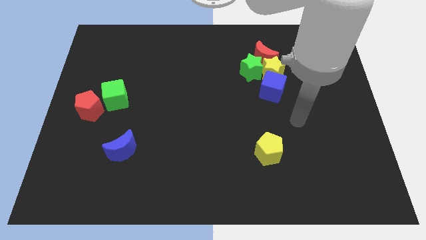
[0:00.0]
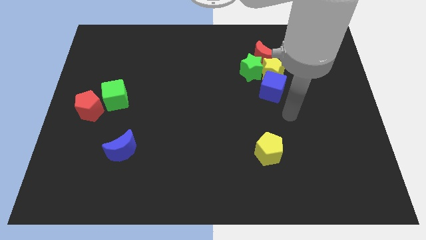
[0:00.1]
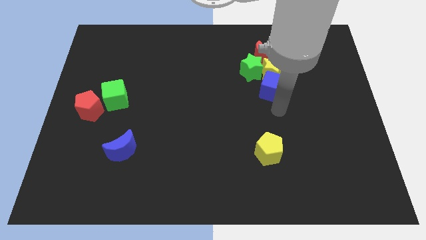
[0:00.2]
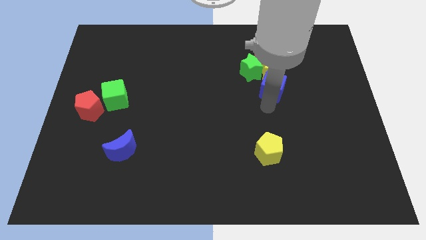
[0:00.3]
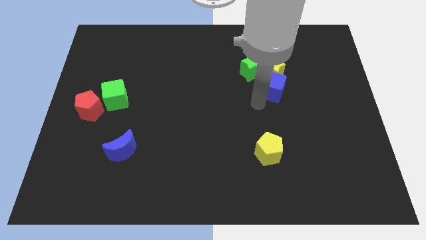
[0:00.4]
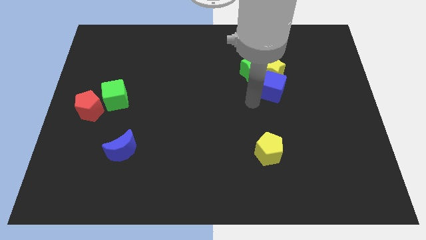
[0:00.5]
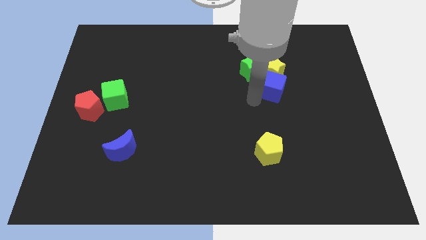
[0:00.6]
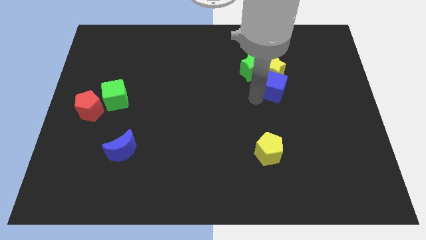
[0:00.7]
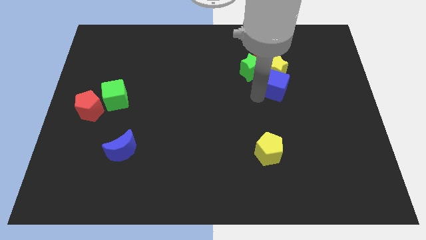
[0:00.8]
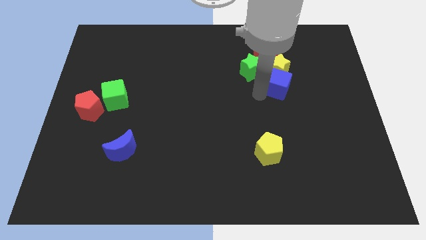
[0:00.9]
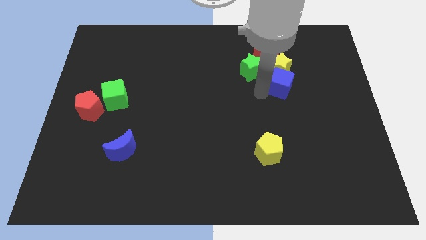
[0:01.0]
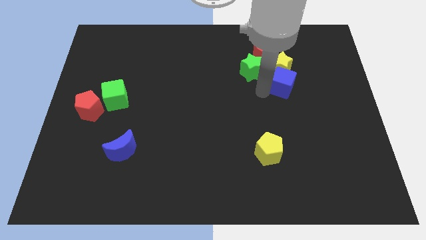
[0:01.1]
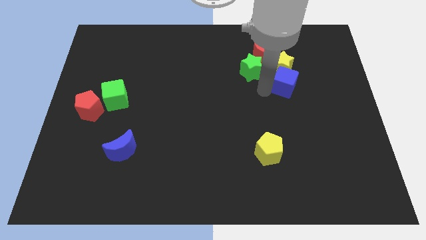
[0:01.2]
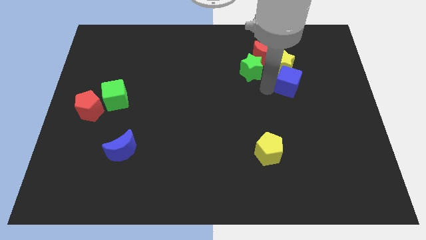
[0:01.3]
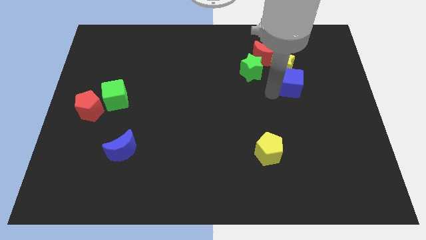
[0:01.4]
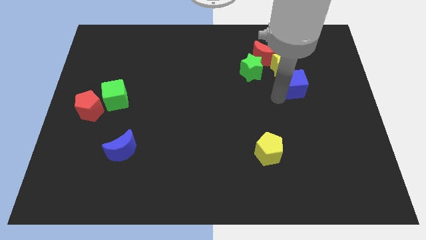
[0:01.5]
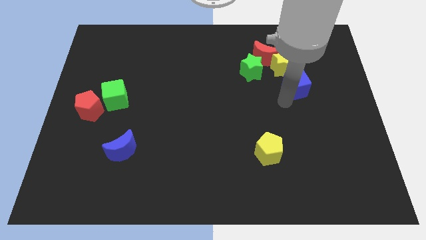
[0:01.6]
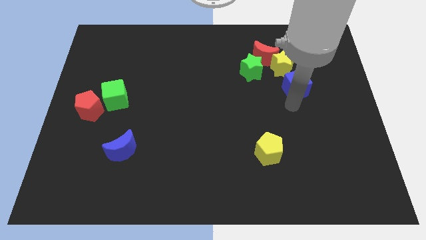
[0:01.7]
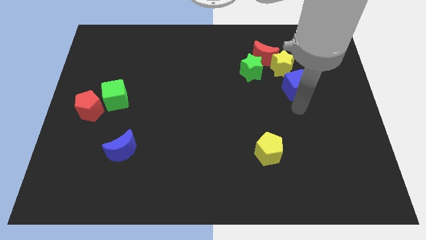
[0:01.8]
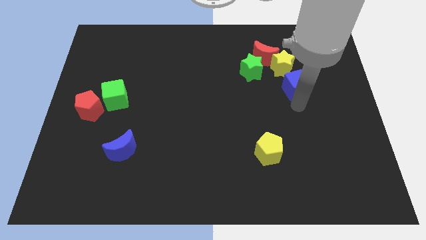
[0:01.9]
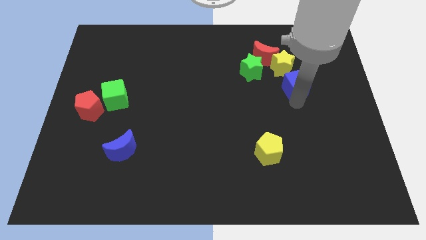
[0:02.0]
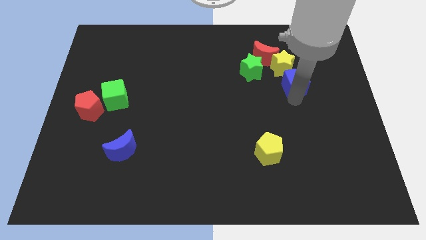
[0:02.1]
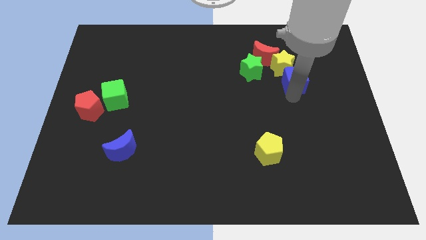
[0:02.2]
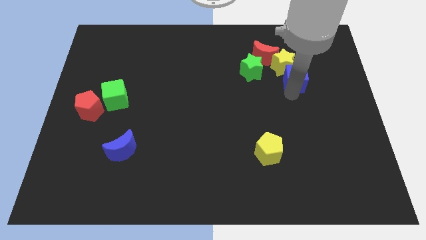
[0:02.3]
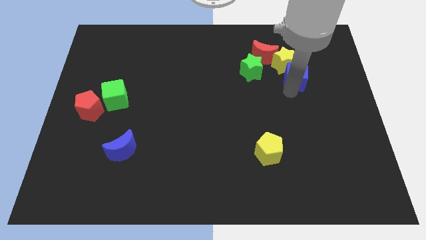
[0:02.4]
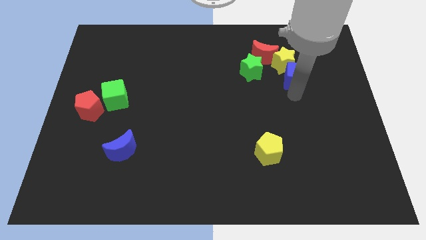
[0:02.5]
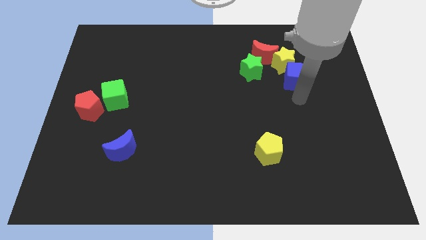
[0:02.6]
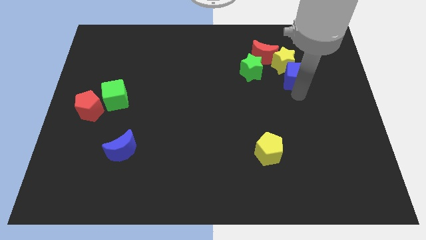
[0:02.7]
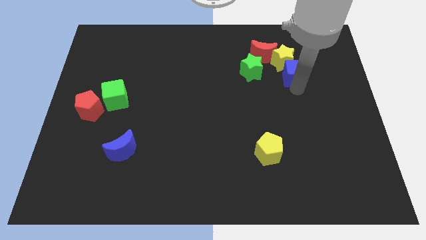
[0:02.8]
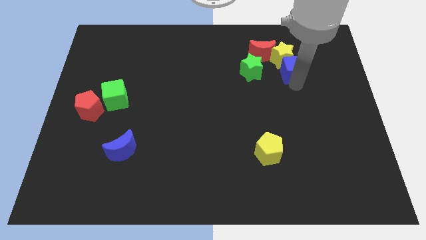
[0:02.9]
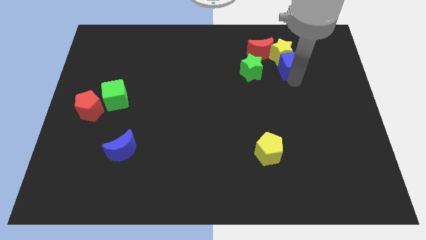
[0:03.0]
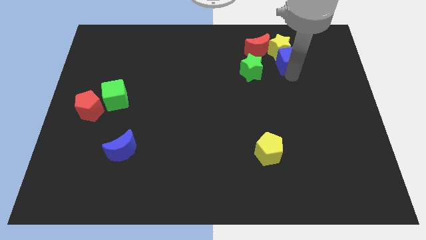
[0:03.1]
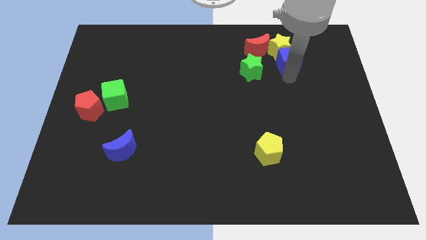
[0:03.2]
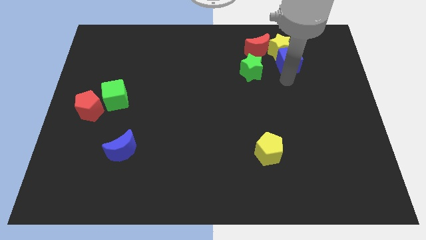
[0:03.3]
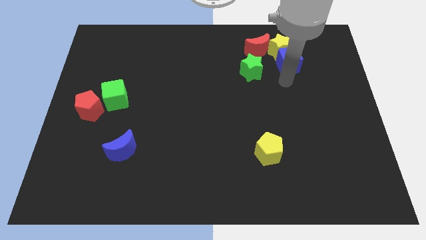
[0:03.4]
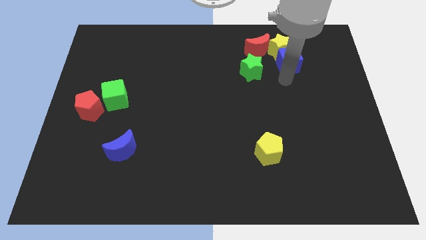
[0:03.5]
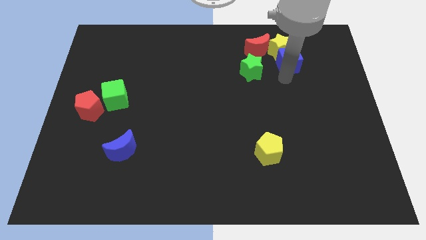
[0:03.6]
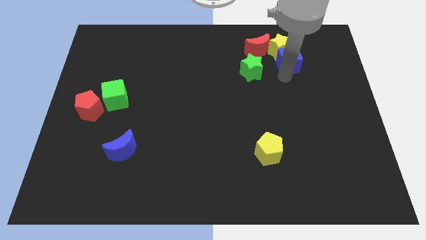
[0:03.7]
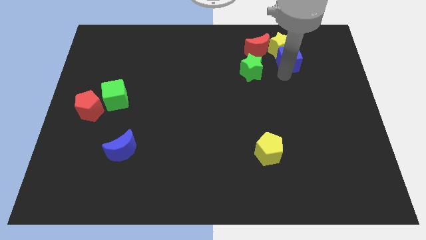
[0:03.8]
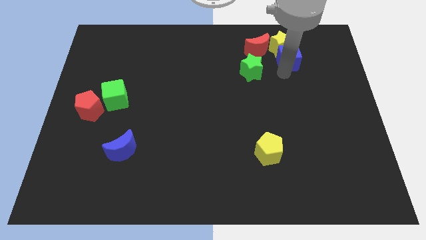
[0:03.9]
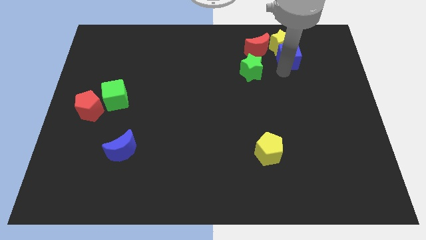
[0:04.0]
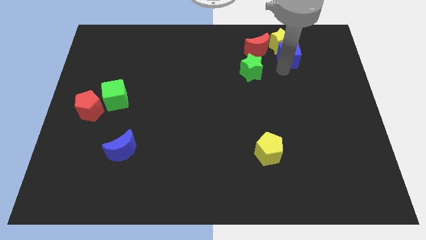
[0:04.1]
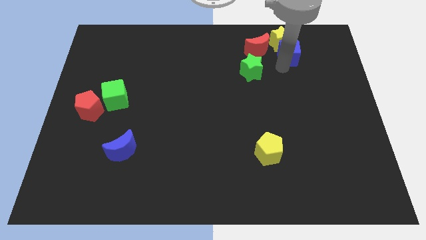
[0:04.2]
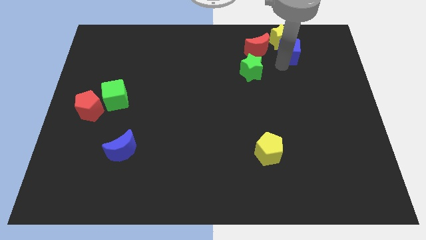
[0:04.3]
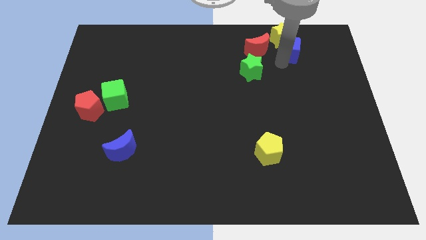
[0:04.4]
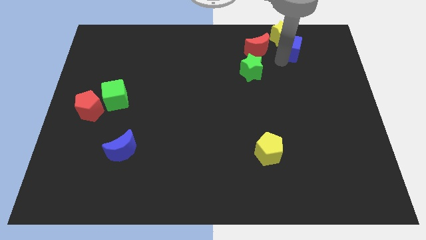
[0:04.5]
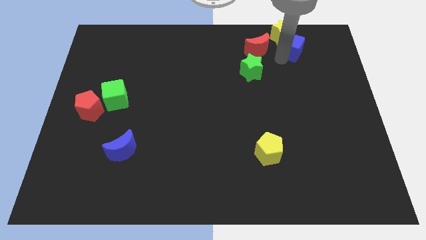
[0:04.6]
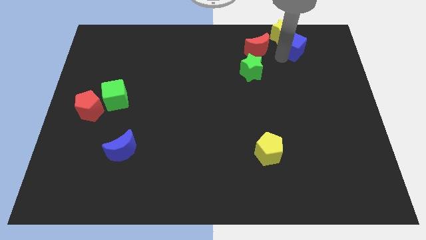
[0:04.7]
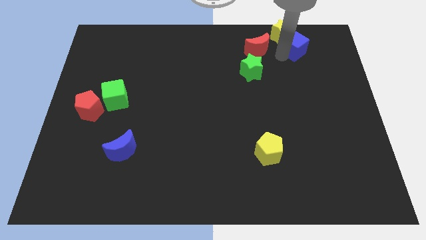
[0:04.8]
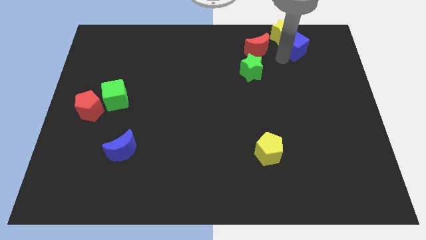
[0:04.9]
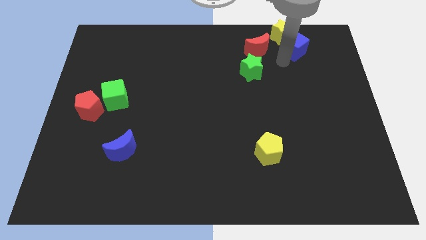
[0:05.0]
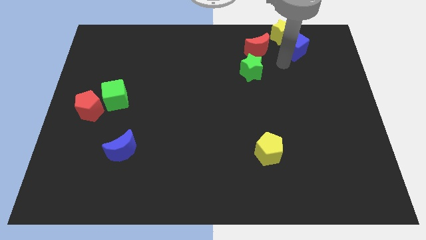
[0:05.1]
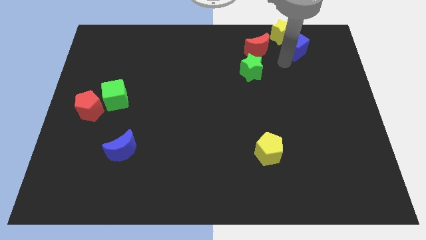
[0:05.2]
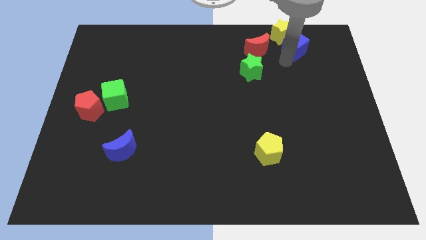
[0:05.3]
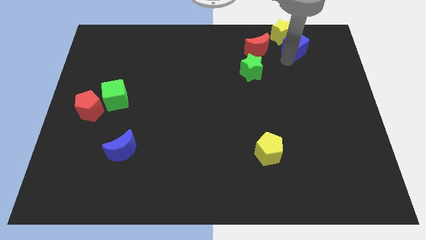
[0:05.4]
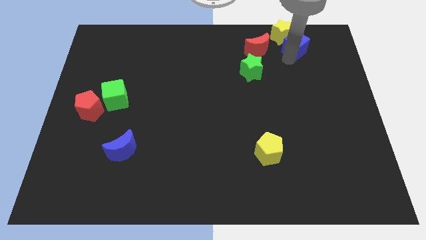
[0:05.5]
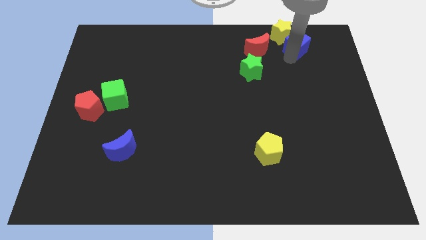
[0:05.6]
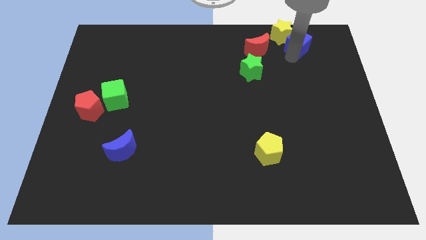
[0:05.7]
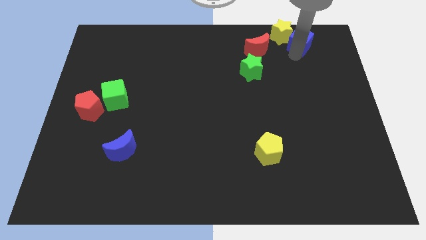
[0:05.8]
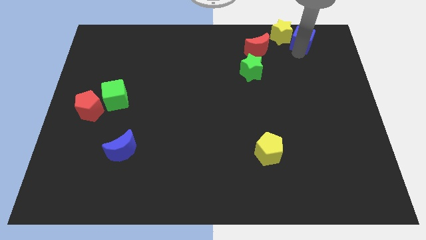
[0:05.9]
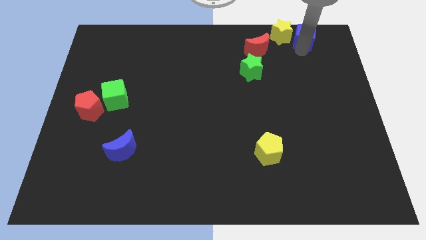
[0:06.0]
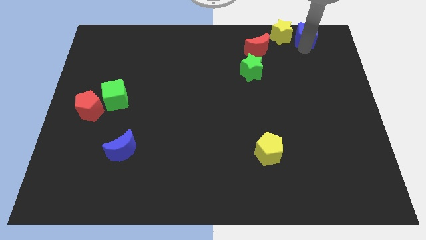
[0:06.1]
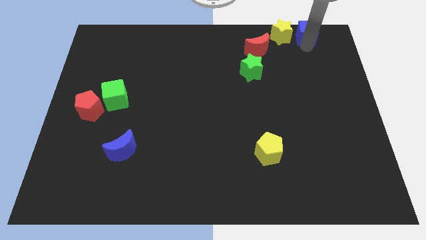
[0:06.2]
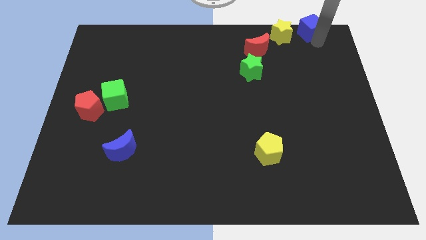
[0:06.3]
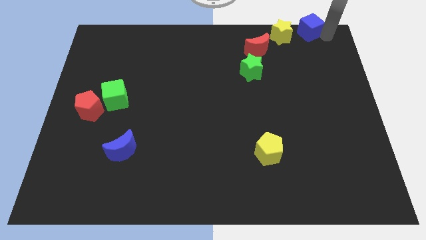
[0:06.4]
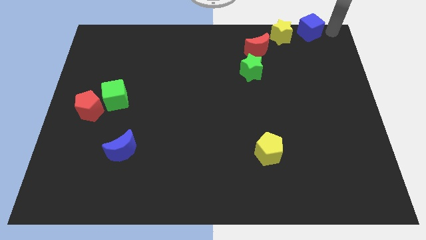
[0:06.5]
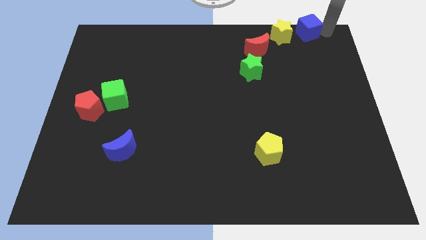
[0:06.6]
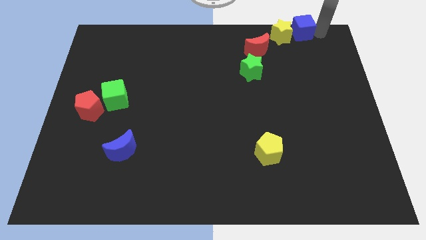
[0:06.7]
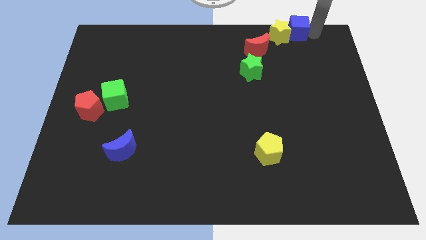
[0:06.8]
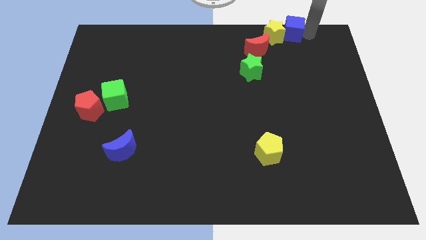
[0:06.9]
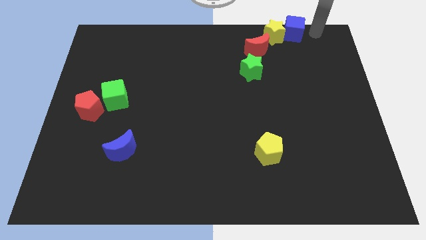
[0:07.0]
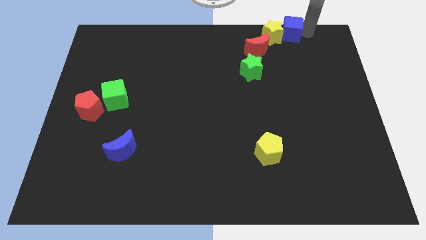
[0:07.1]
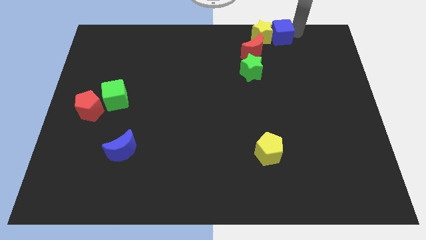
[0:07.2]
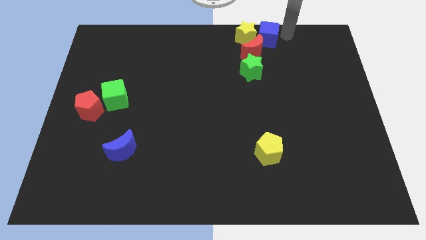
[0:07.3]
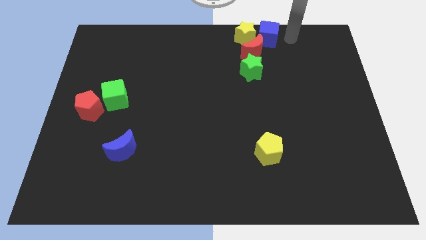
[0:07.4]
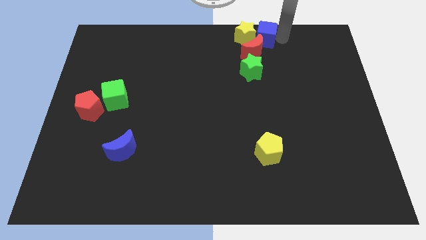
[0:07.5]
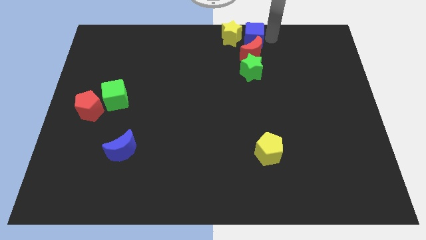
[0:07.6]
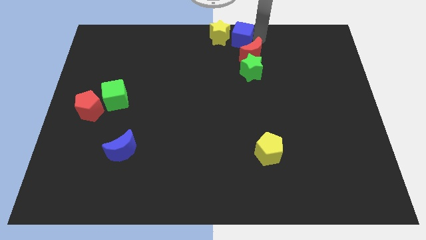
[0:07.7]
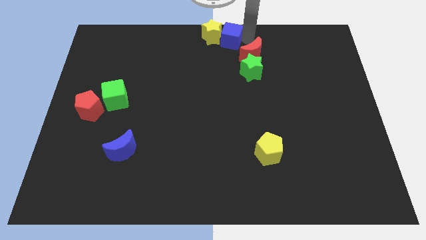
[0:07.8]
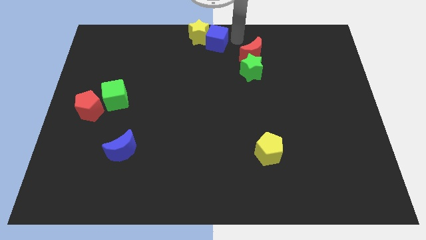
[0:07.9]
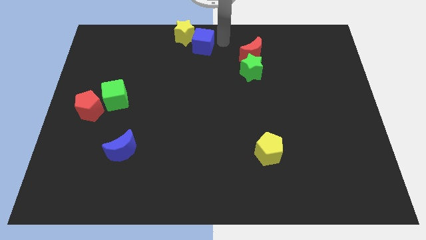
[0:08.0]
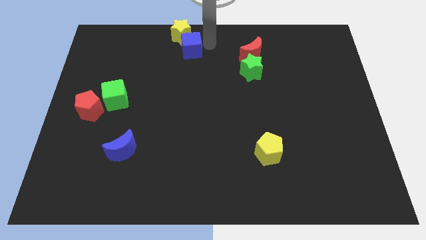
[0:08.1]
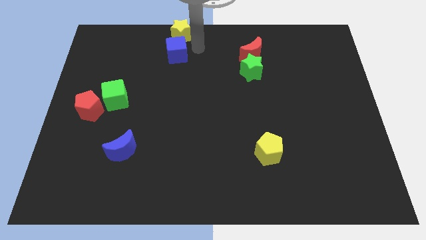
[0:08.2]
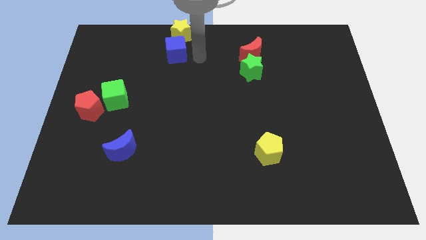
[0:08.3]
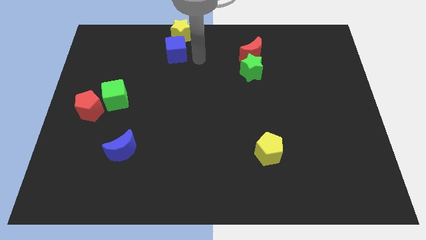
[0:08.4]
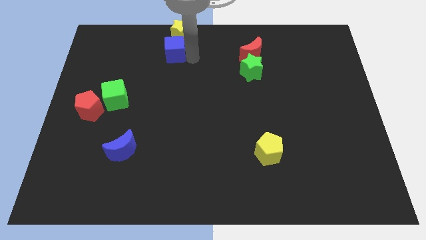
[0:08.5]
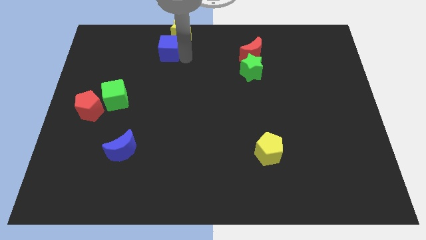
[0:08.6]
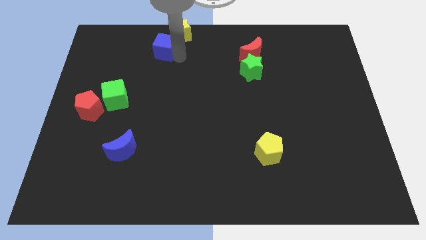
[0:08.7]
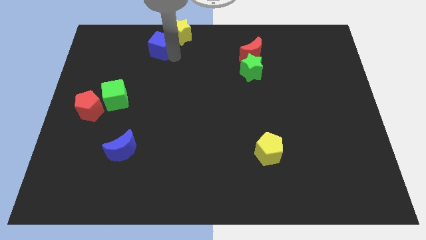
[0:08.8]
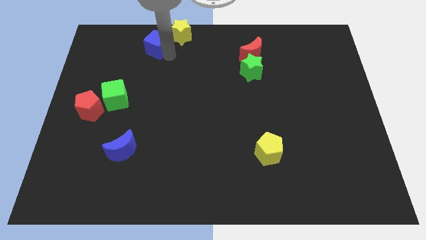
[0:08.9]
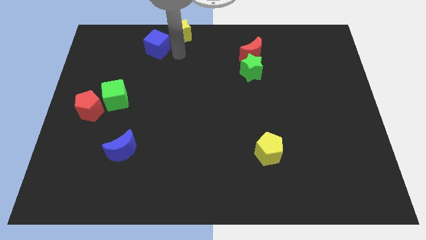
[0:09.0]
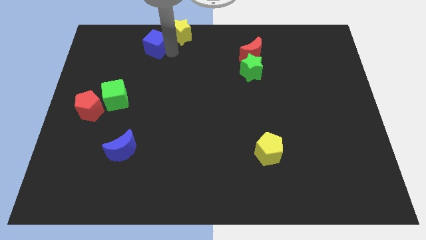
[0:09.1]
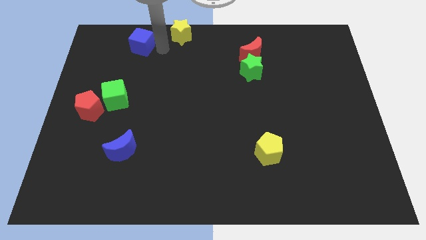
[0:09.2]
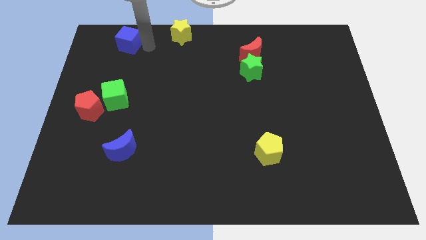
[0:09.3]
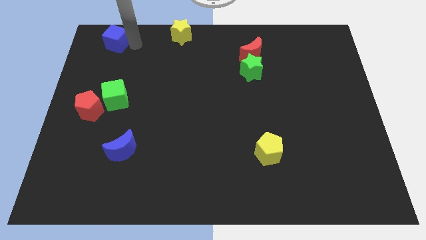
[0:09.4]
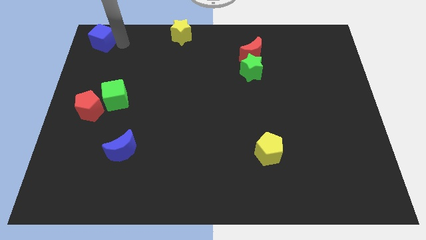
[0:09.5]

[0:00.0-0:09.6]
put the blue cube to the top left of the board
